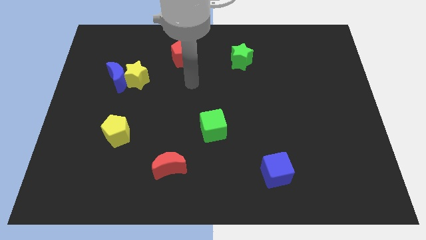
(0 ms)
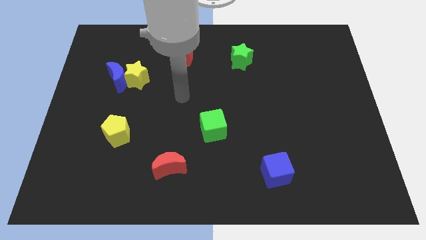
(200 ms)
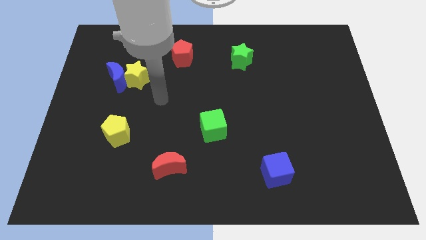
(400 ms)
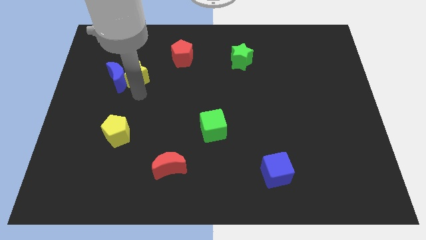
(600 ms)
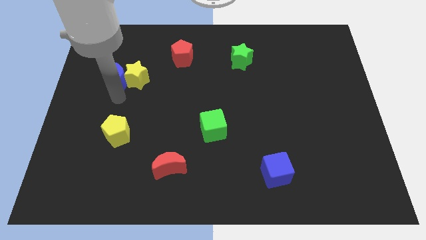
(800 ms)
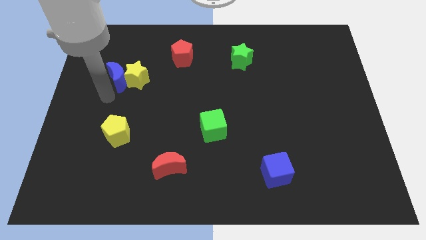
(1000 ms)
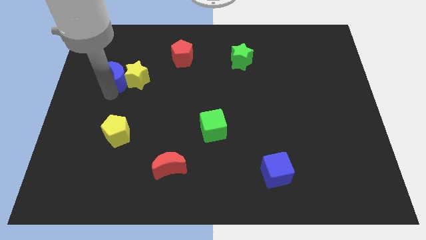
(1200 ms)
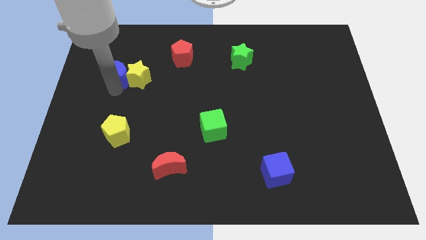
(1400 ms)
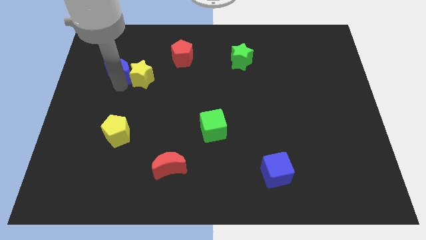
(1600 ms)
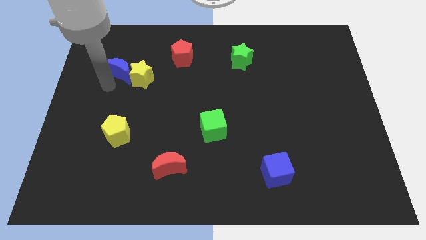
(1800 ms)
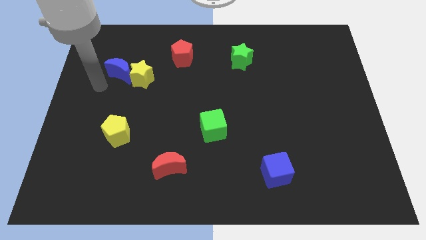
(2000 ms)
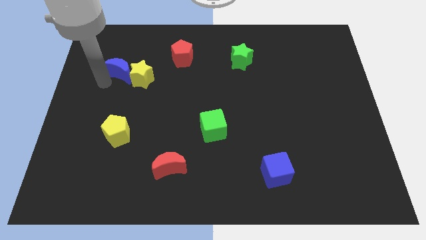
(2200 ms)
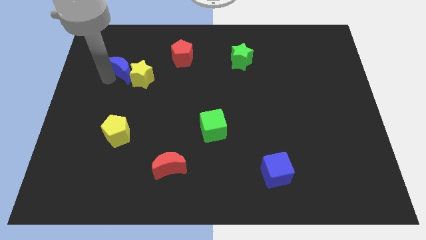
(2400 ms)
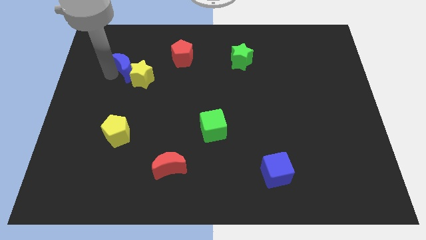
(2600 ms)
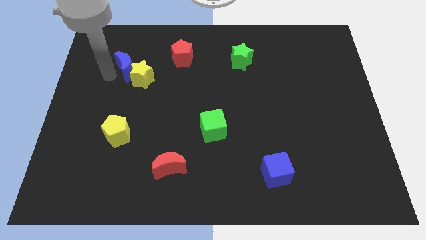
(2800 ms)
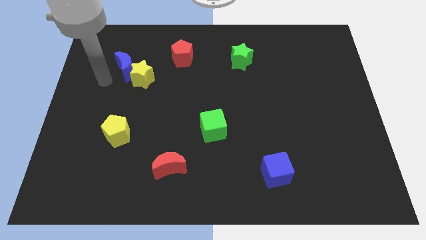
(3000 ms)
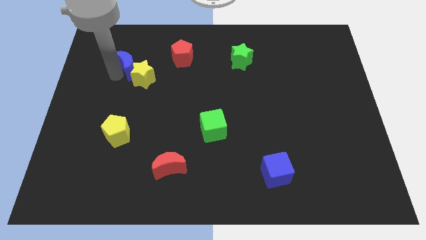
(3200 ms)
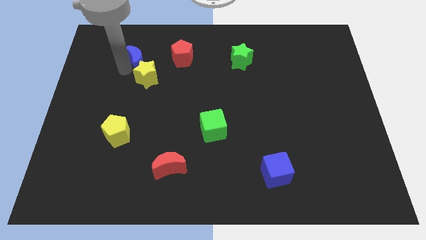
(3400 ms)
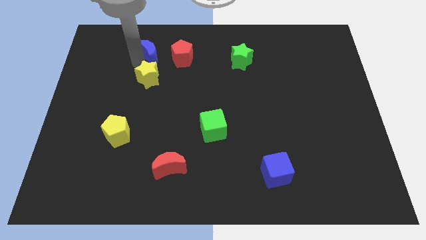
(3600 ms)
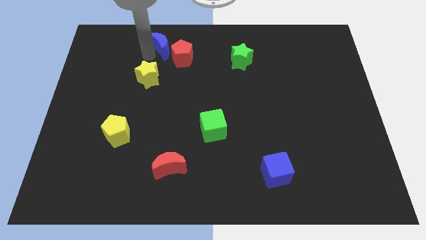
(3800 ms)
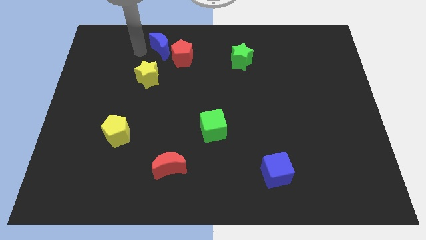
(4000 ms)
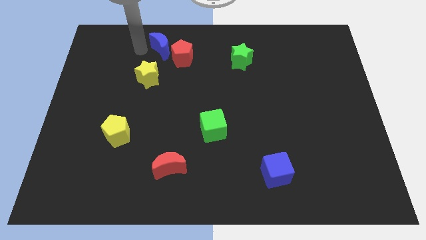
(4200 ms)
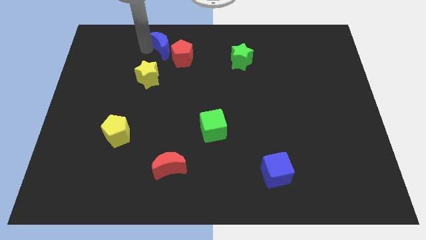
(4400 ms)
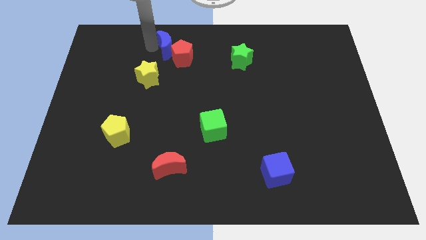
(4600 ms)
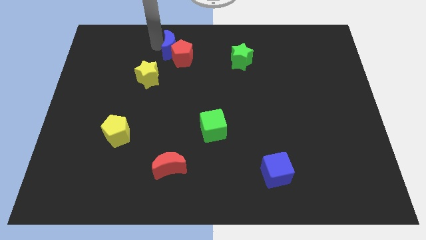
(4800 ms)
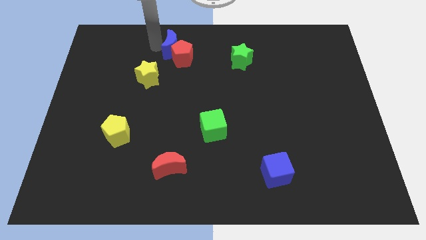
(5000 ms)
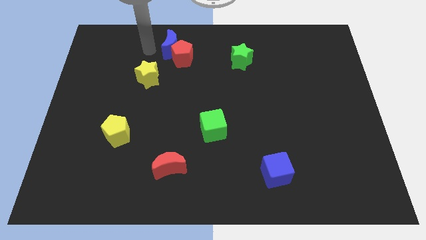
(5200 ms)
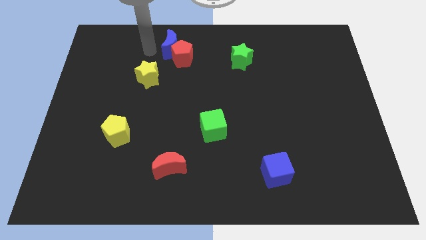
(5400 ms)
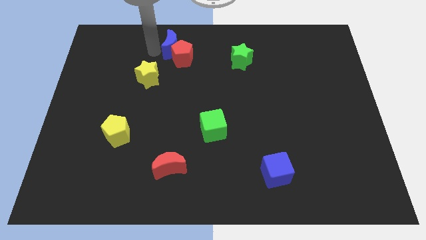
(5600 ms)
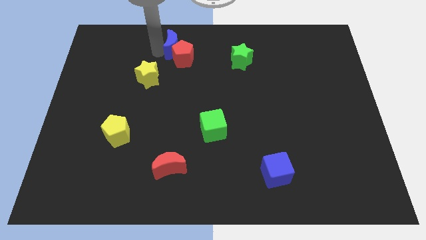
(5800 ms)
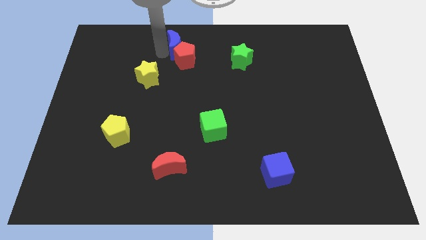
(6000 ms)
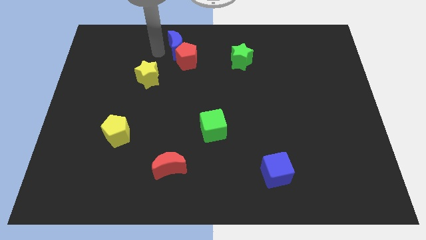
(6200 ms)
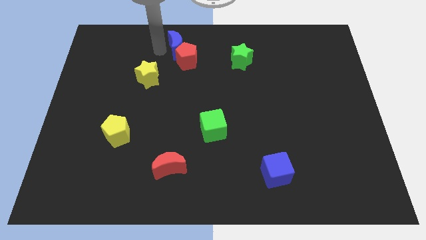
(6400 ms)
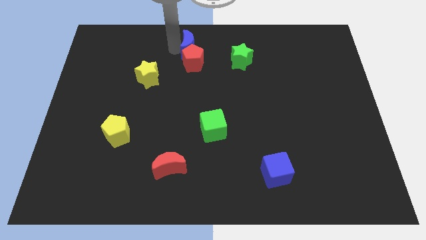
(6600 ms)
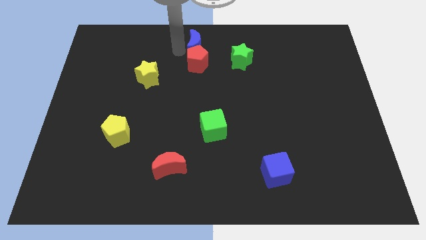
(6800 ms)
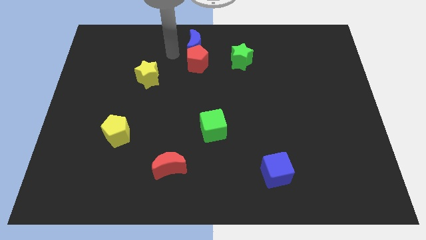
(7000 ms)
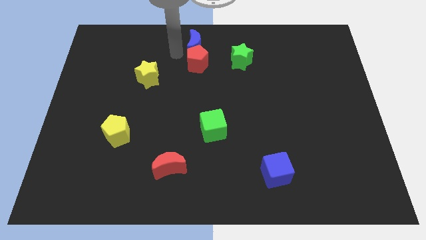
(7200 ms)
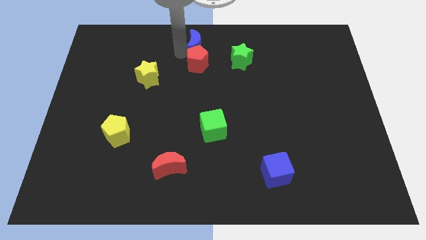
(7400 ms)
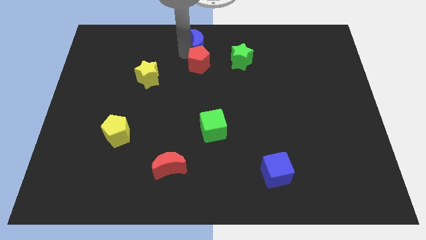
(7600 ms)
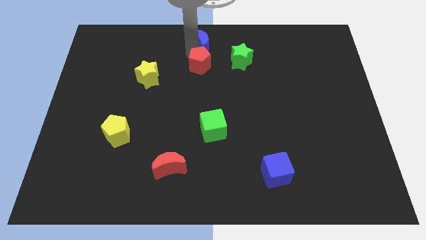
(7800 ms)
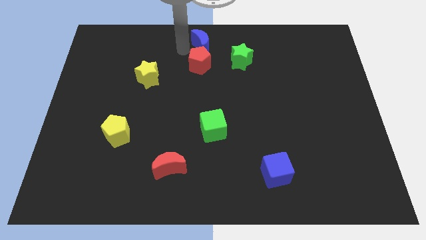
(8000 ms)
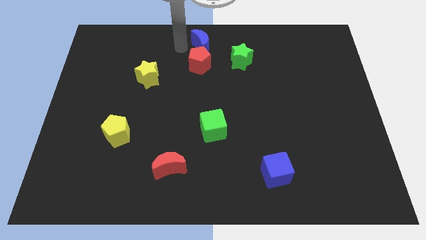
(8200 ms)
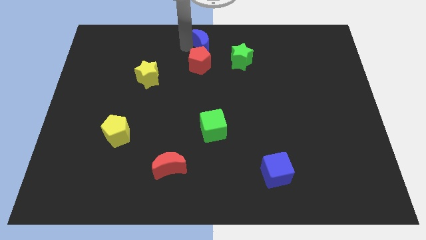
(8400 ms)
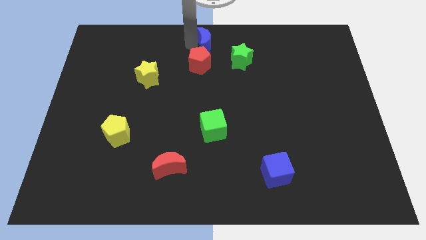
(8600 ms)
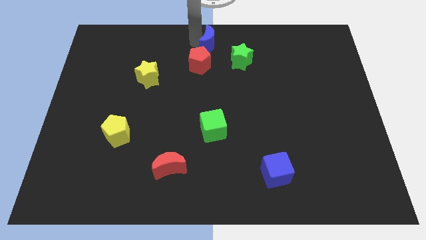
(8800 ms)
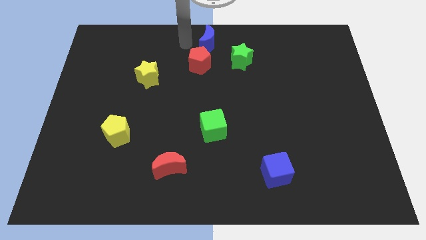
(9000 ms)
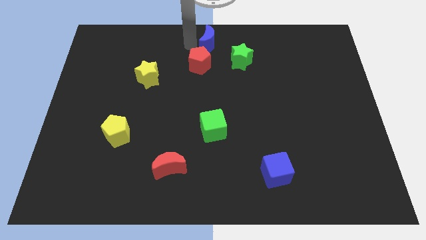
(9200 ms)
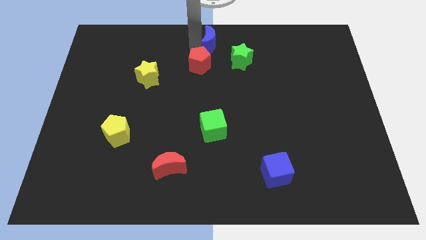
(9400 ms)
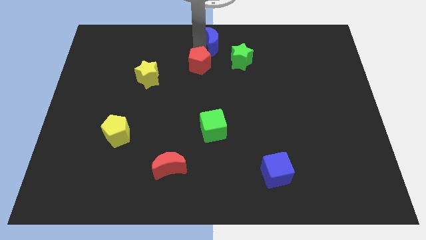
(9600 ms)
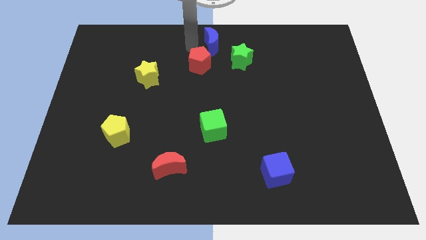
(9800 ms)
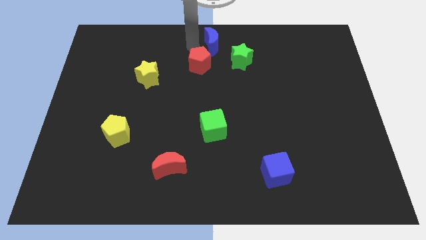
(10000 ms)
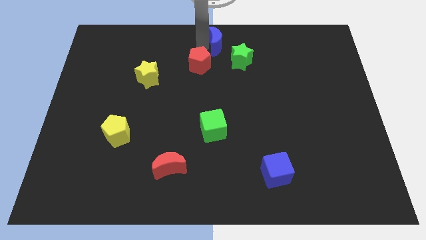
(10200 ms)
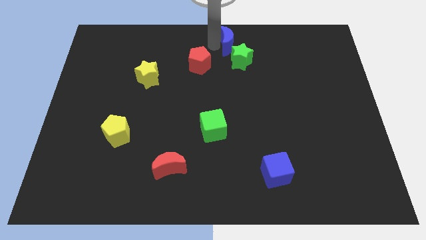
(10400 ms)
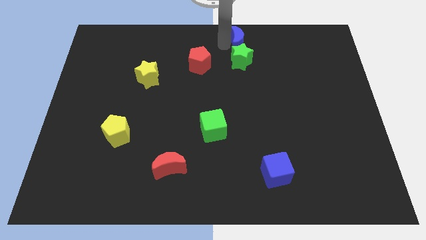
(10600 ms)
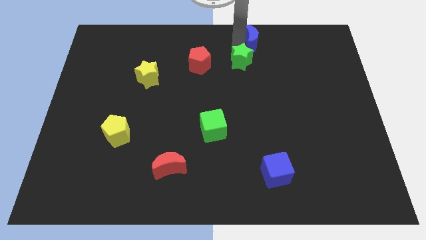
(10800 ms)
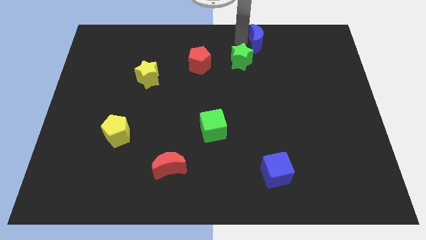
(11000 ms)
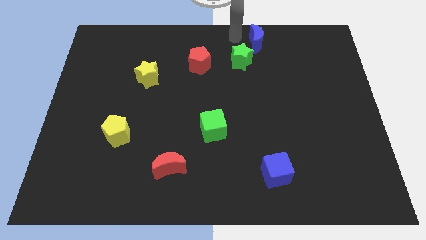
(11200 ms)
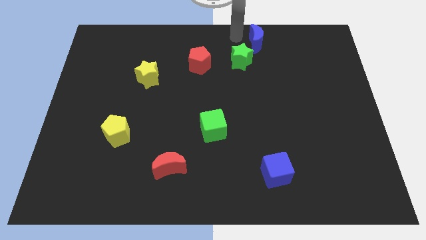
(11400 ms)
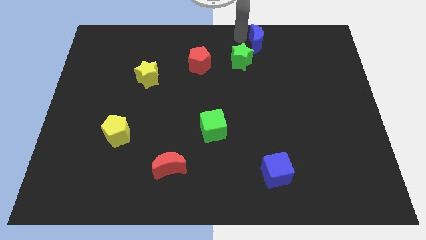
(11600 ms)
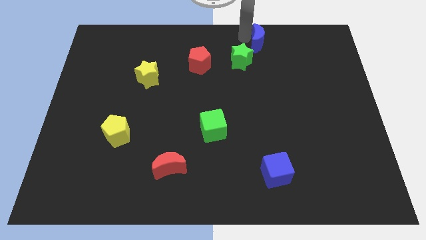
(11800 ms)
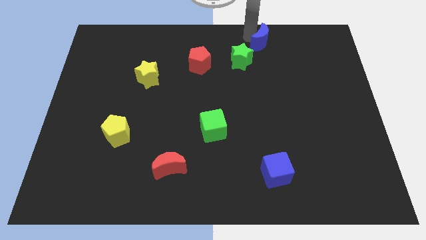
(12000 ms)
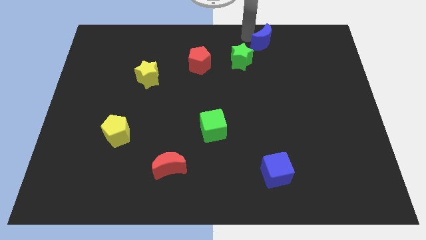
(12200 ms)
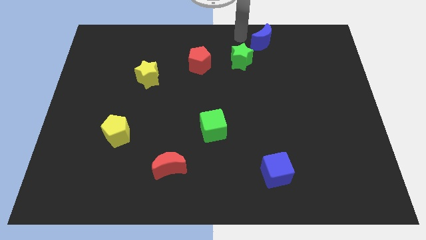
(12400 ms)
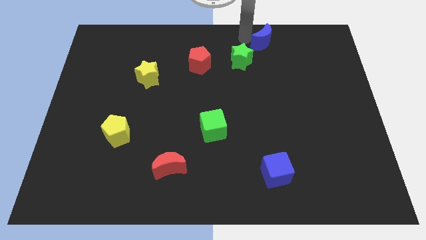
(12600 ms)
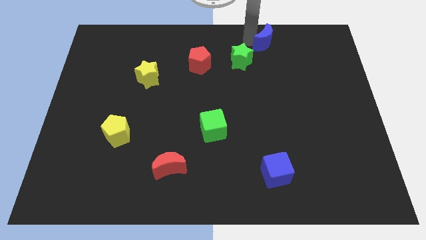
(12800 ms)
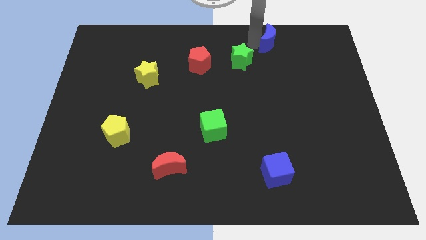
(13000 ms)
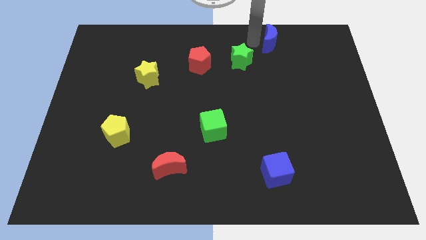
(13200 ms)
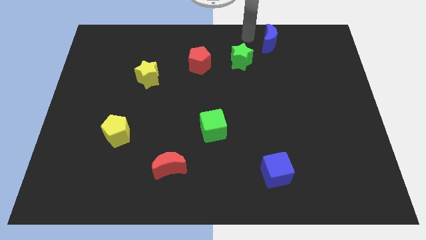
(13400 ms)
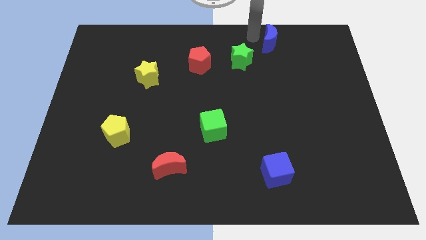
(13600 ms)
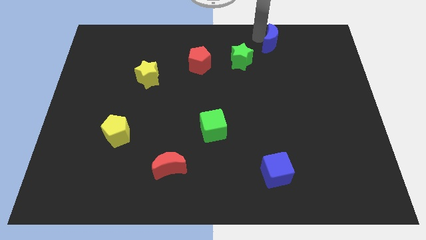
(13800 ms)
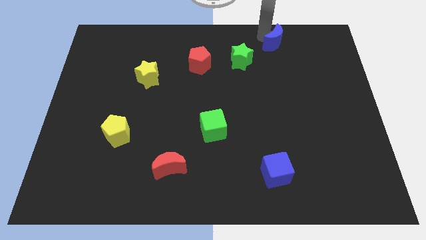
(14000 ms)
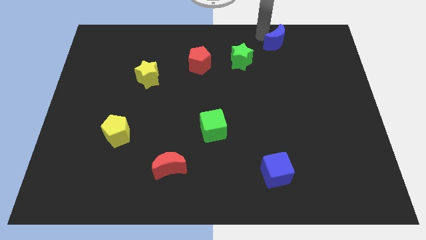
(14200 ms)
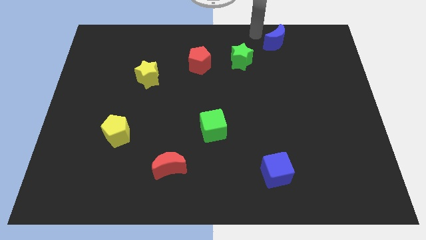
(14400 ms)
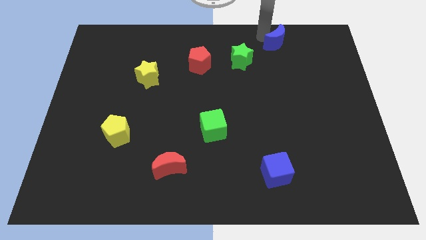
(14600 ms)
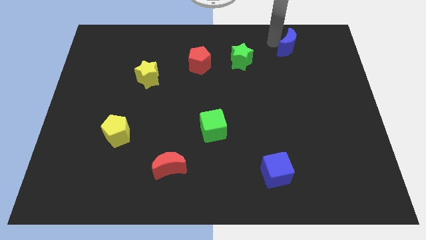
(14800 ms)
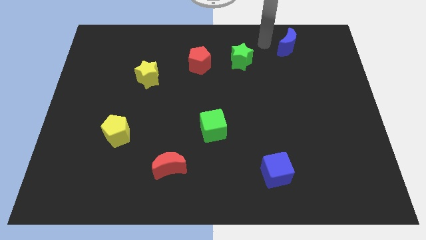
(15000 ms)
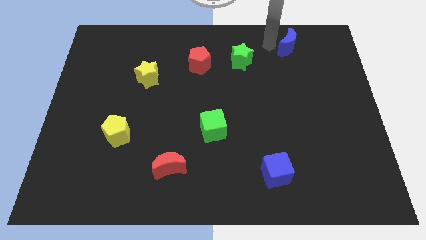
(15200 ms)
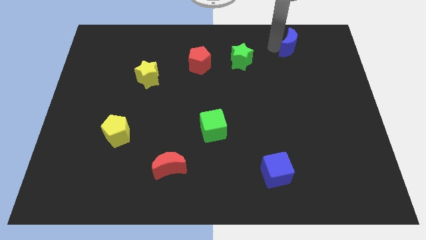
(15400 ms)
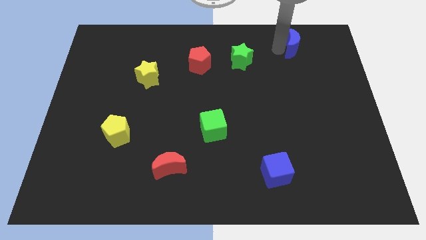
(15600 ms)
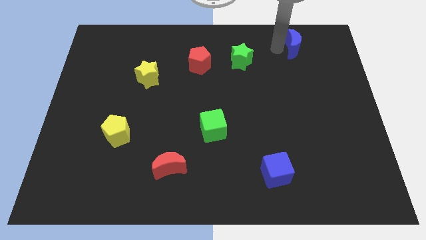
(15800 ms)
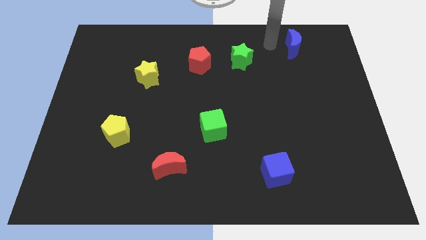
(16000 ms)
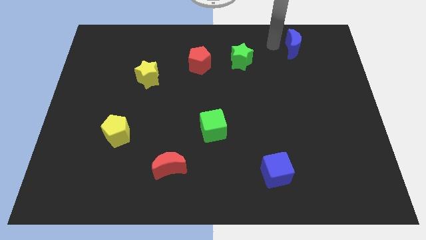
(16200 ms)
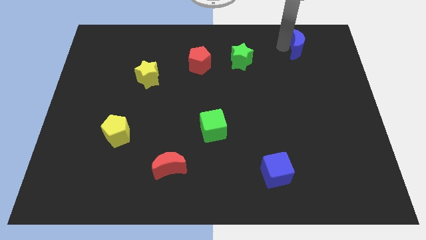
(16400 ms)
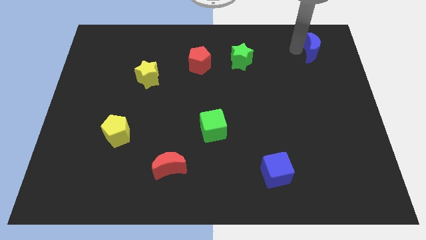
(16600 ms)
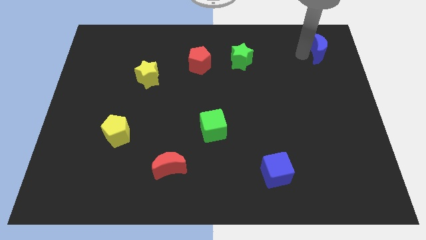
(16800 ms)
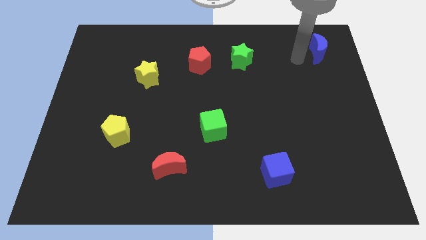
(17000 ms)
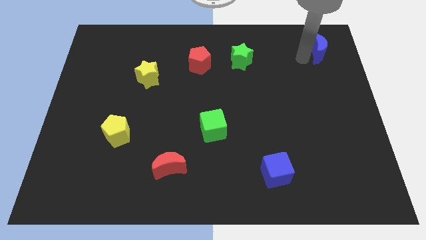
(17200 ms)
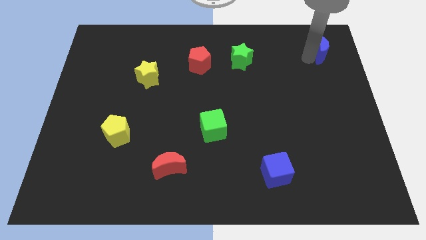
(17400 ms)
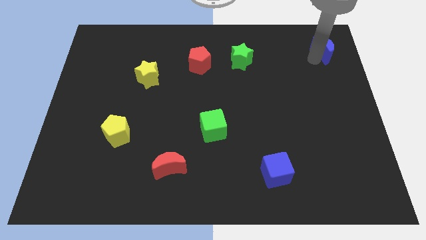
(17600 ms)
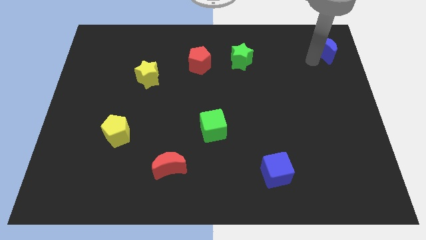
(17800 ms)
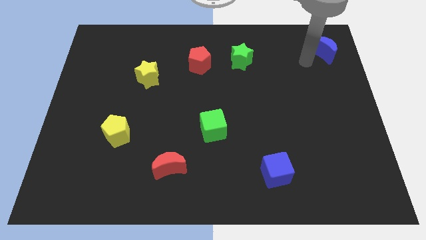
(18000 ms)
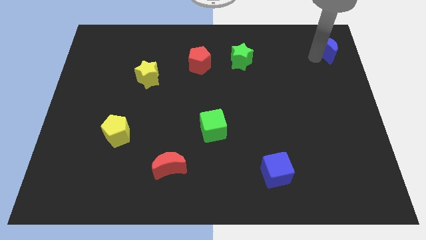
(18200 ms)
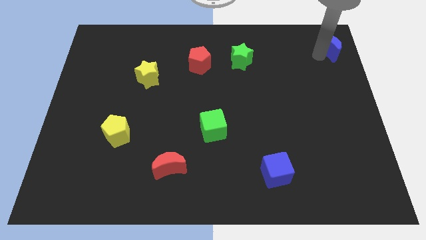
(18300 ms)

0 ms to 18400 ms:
slide the blue moon to the top right
